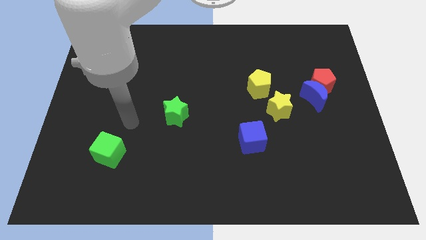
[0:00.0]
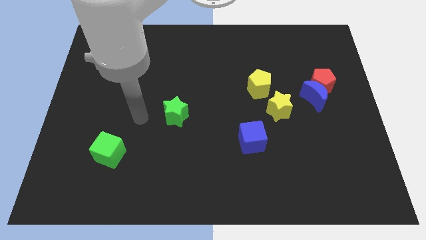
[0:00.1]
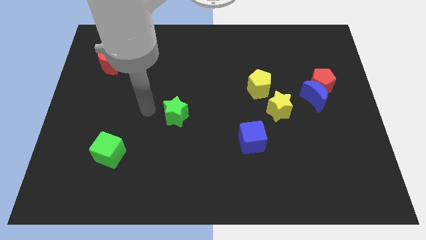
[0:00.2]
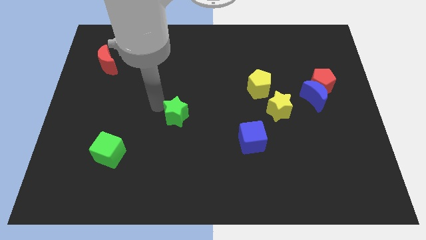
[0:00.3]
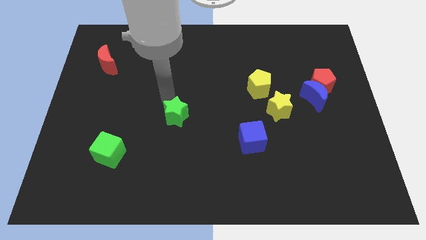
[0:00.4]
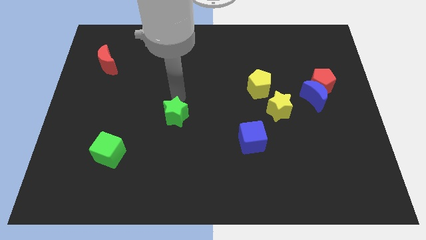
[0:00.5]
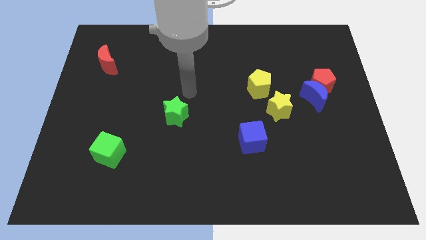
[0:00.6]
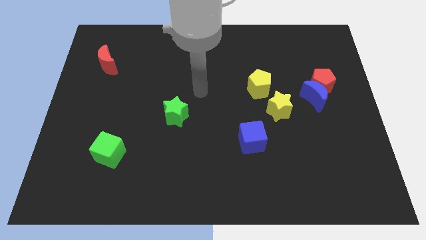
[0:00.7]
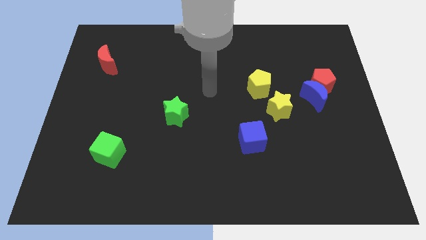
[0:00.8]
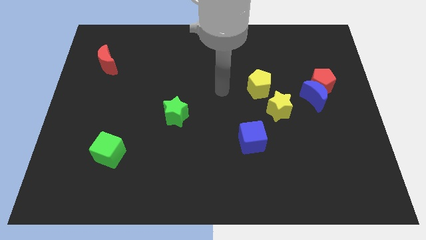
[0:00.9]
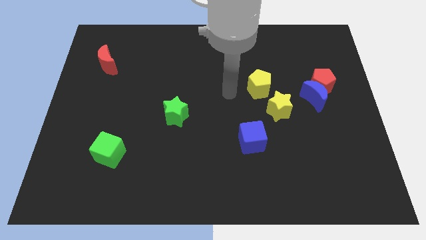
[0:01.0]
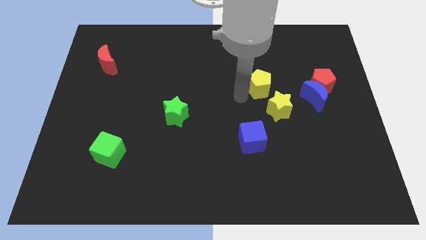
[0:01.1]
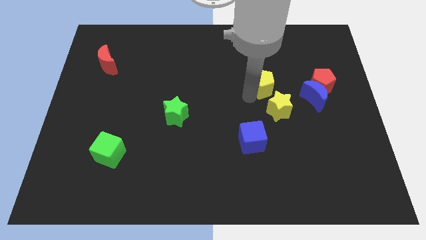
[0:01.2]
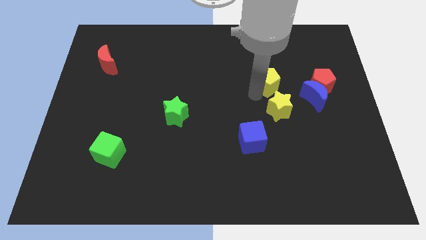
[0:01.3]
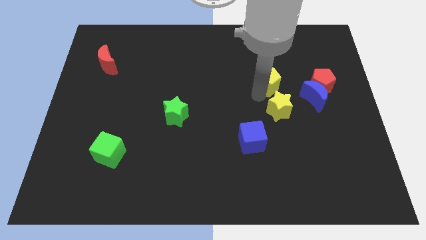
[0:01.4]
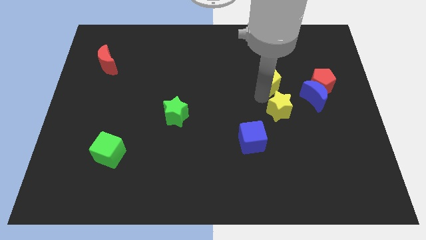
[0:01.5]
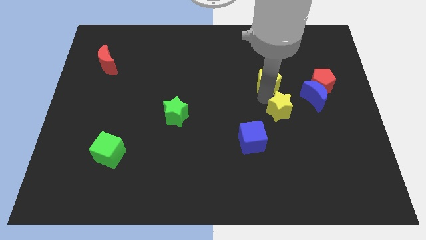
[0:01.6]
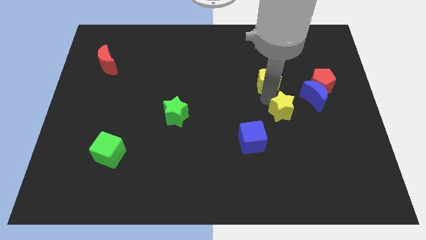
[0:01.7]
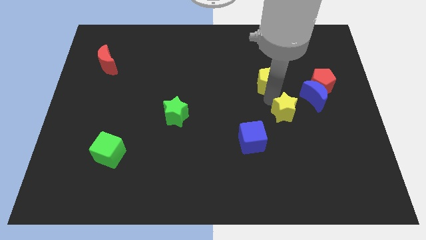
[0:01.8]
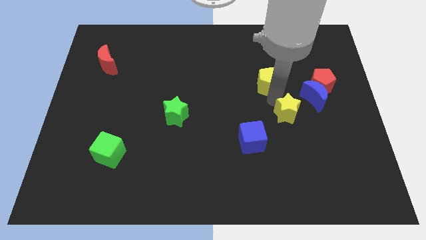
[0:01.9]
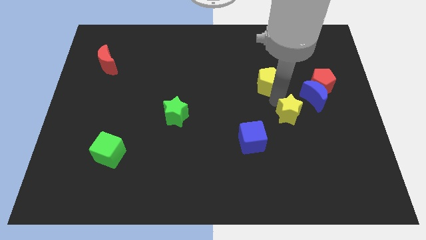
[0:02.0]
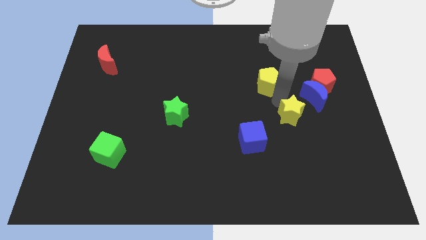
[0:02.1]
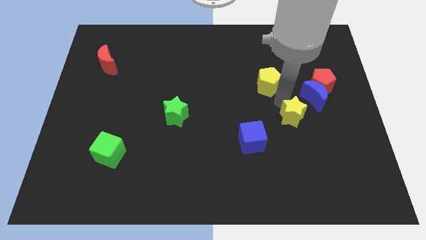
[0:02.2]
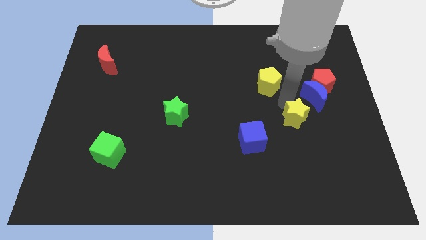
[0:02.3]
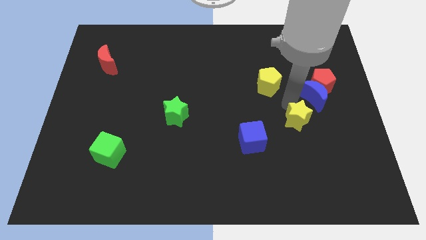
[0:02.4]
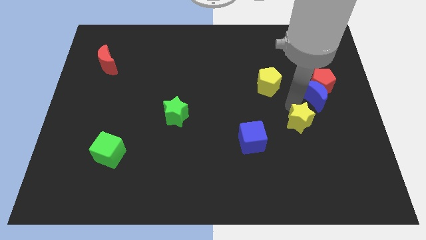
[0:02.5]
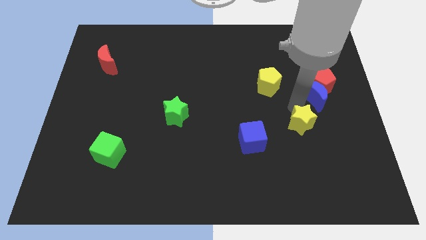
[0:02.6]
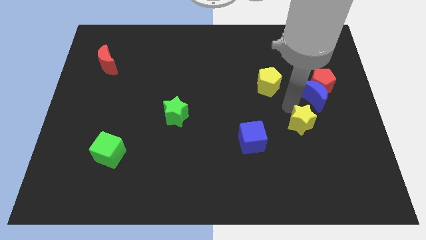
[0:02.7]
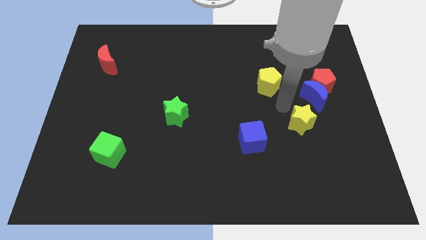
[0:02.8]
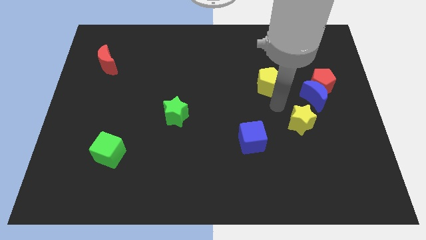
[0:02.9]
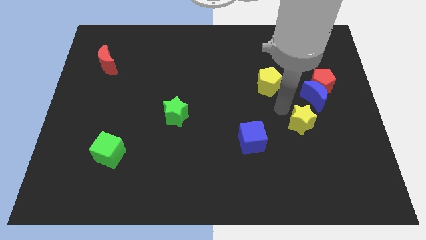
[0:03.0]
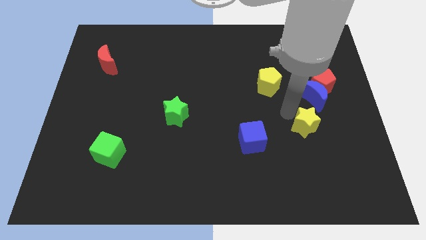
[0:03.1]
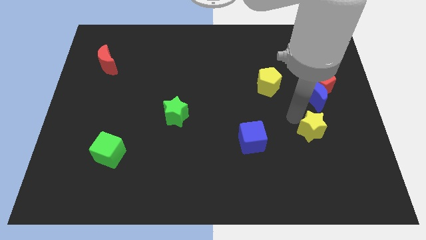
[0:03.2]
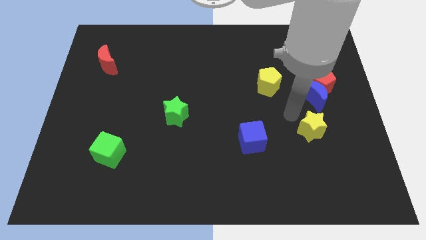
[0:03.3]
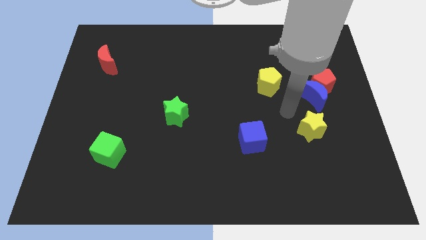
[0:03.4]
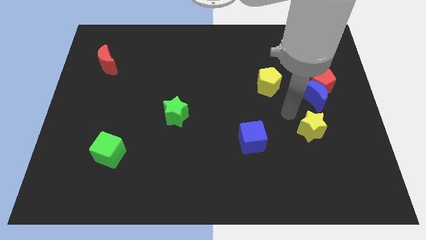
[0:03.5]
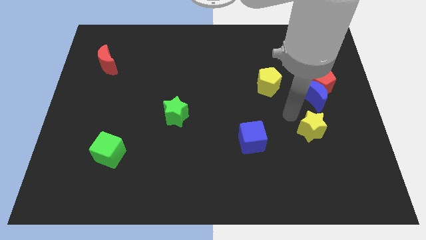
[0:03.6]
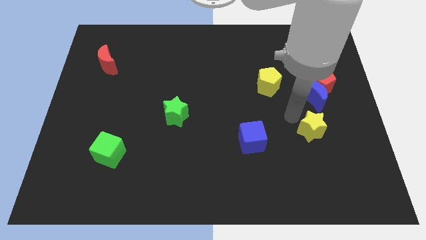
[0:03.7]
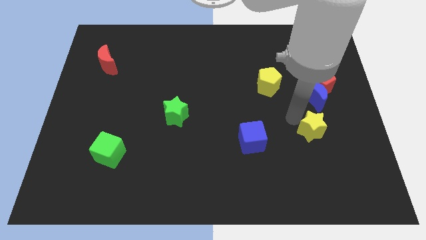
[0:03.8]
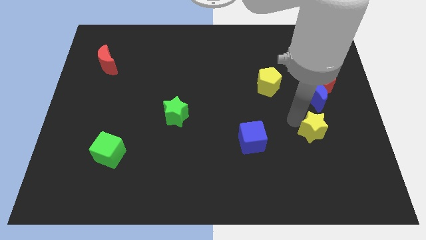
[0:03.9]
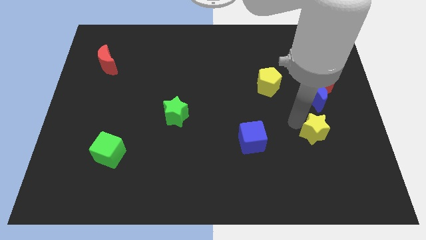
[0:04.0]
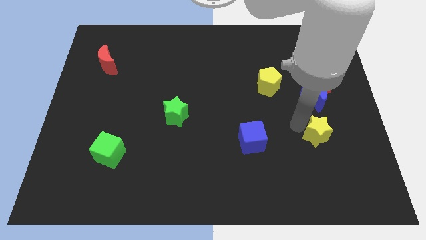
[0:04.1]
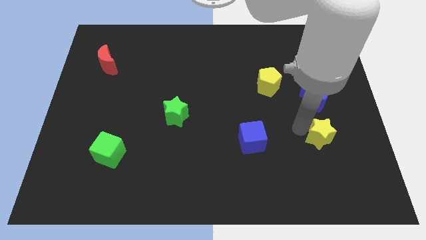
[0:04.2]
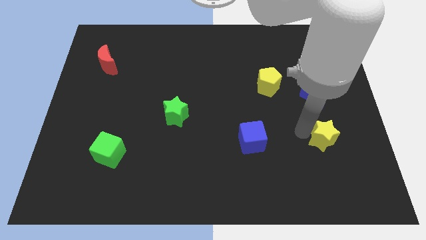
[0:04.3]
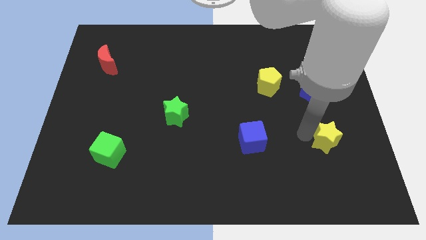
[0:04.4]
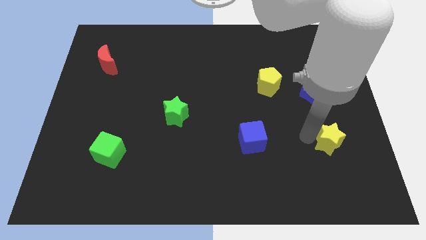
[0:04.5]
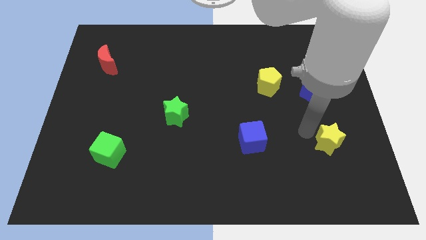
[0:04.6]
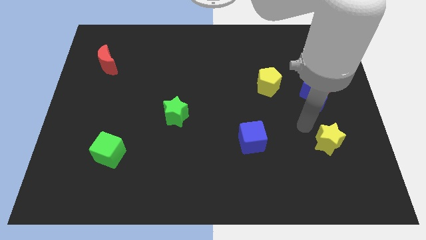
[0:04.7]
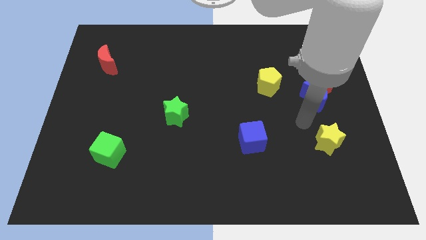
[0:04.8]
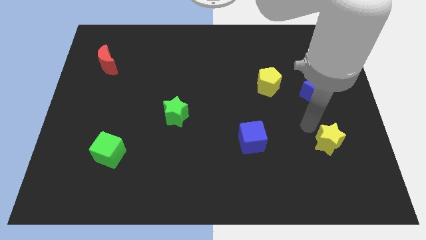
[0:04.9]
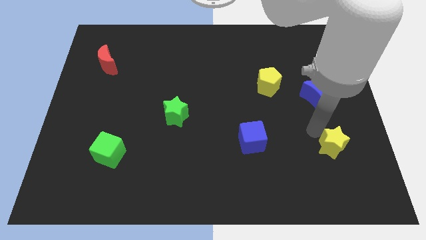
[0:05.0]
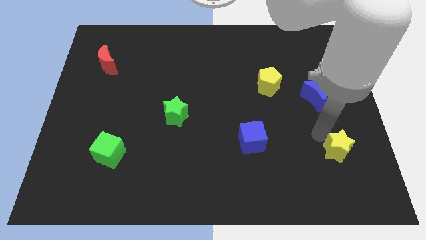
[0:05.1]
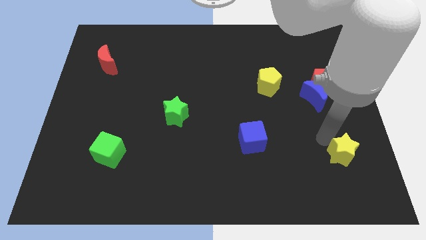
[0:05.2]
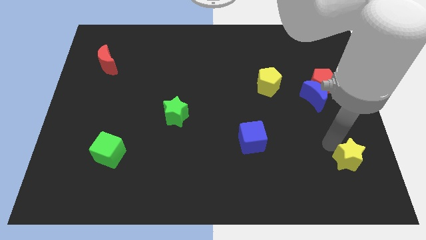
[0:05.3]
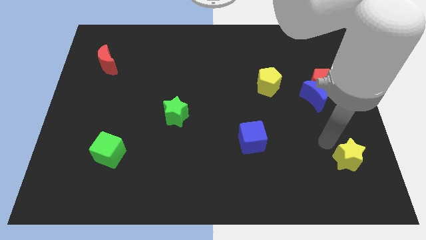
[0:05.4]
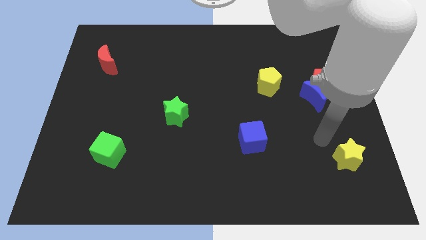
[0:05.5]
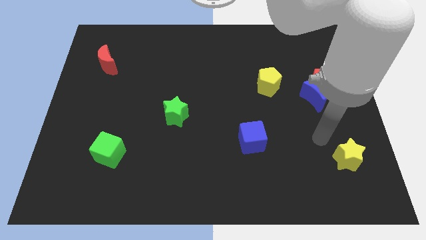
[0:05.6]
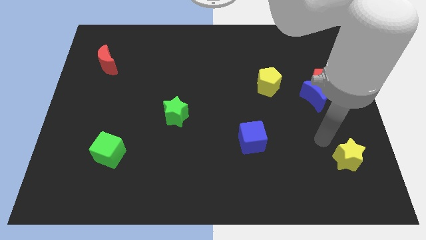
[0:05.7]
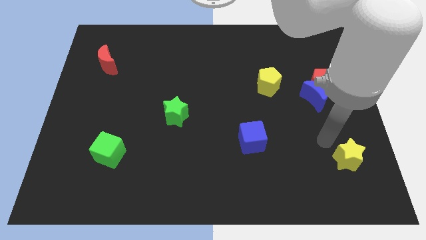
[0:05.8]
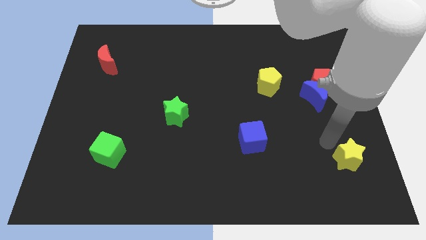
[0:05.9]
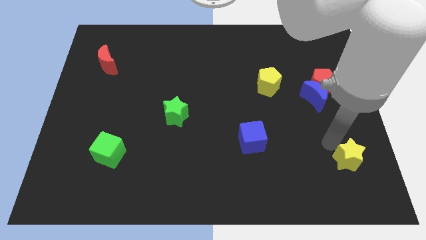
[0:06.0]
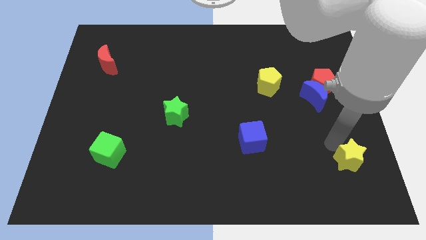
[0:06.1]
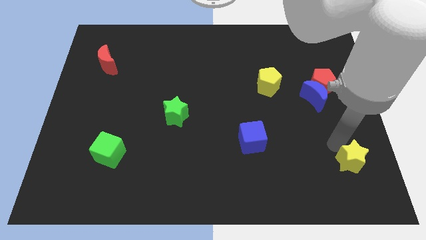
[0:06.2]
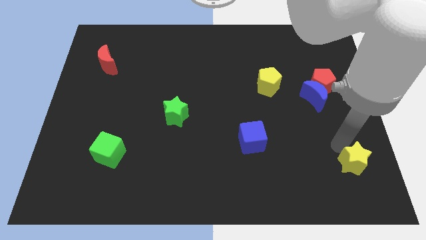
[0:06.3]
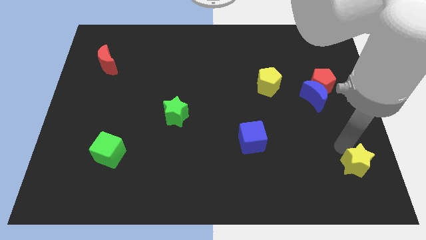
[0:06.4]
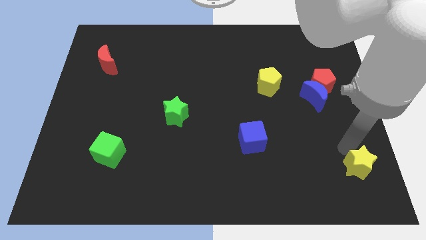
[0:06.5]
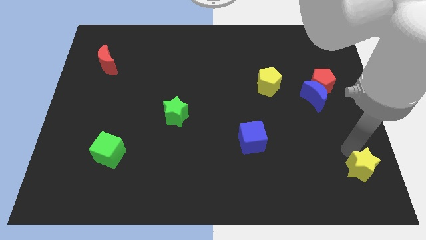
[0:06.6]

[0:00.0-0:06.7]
put the yellow star to the bottom right

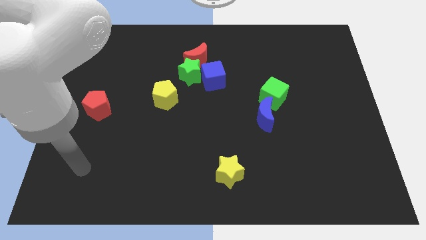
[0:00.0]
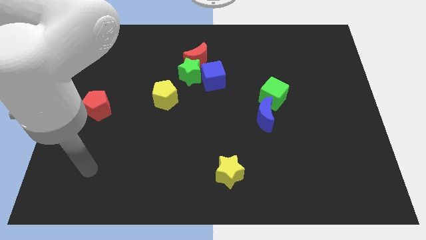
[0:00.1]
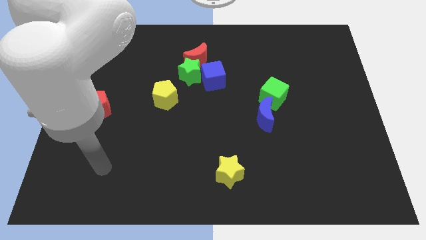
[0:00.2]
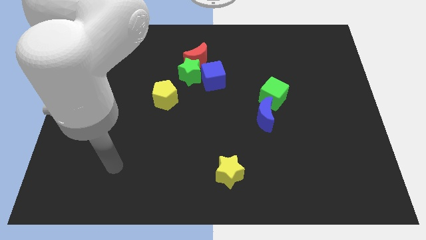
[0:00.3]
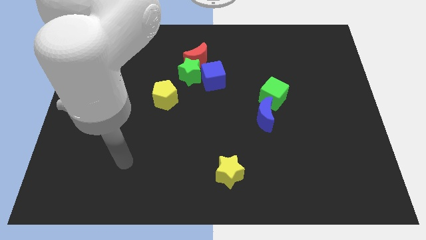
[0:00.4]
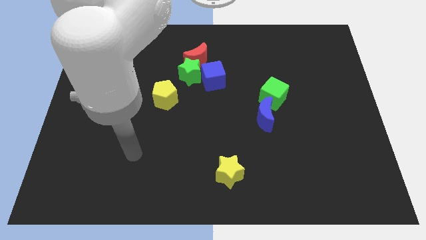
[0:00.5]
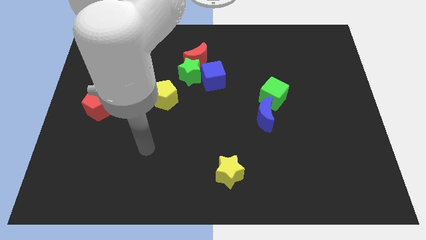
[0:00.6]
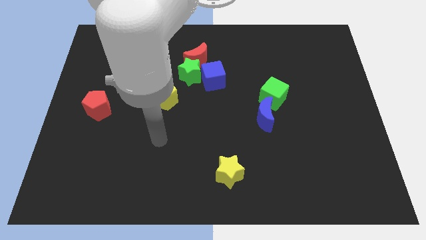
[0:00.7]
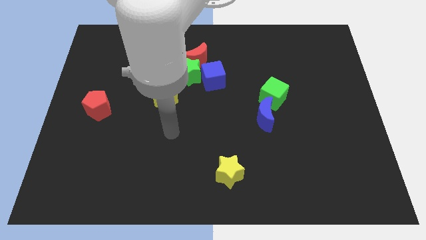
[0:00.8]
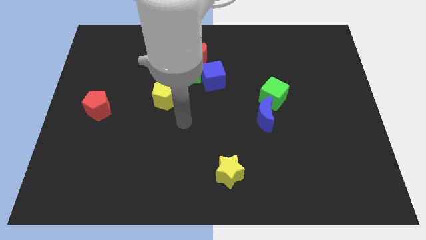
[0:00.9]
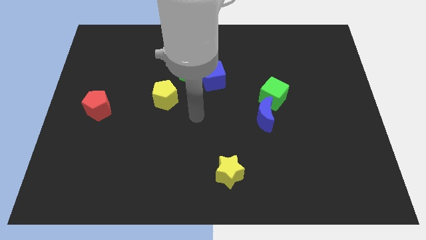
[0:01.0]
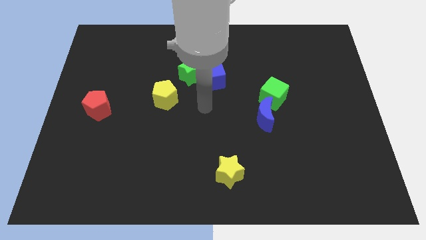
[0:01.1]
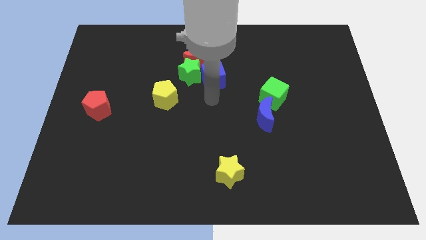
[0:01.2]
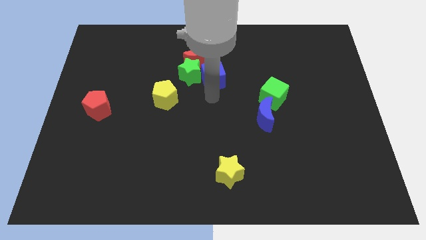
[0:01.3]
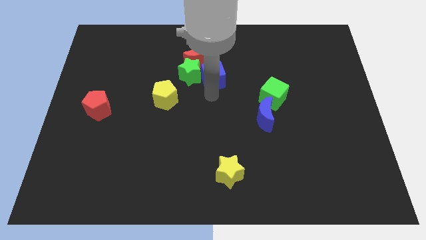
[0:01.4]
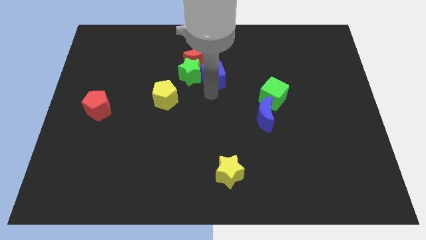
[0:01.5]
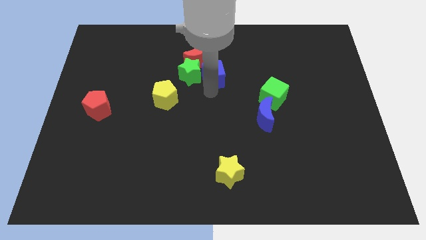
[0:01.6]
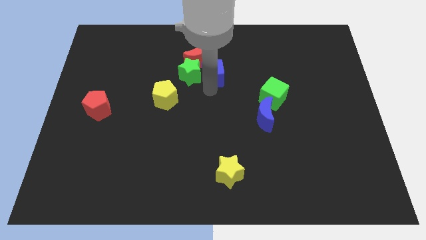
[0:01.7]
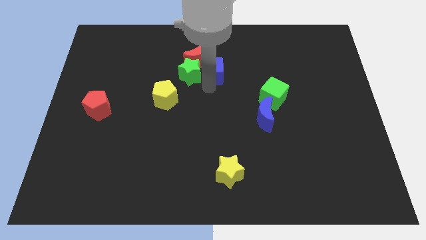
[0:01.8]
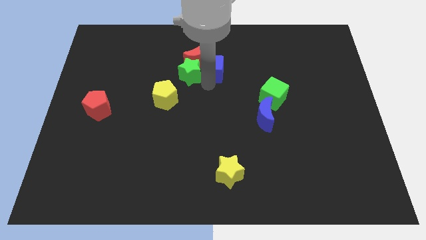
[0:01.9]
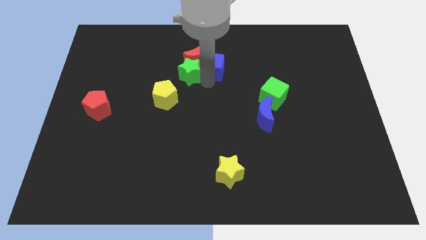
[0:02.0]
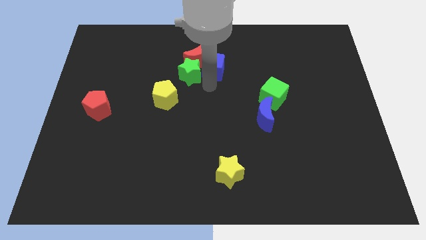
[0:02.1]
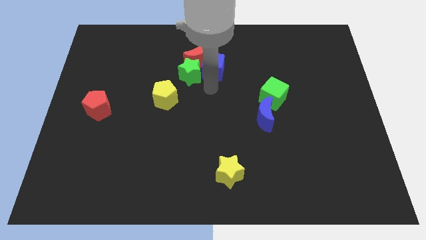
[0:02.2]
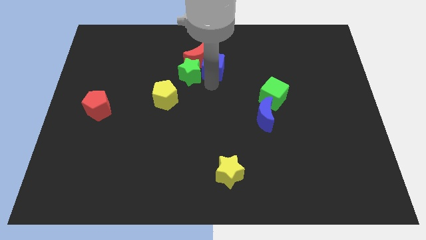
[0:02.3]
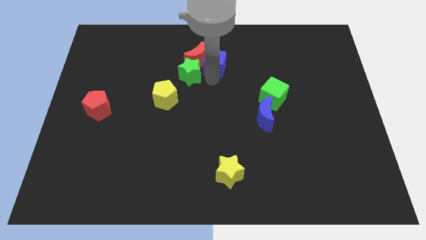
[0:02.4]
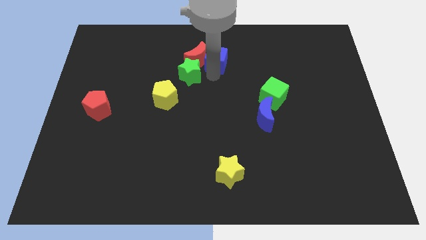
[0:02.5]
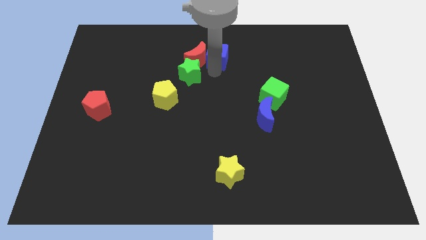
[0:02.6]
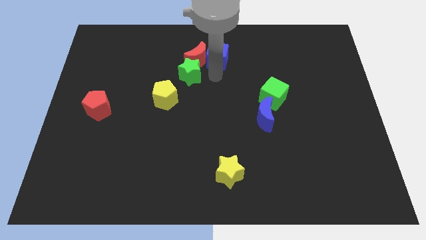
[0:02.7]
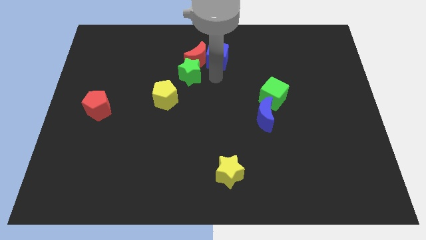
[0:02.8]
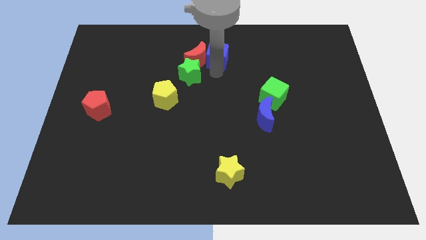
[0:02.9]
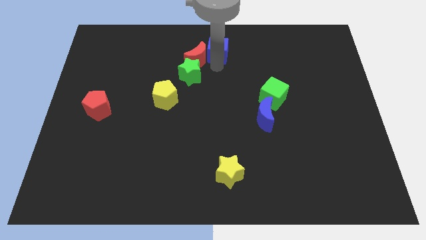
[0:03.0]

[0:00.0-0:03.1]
move the blue cube to the top
